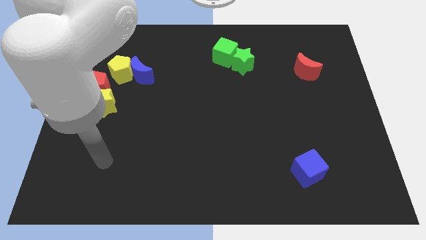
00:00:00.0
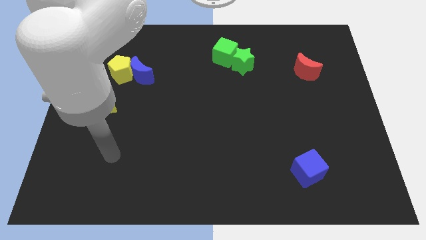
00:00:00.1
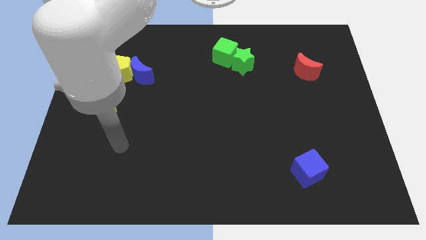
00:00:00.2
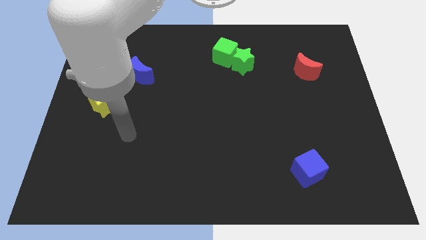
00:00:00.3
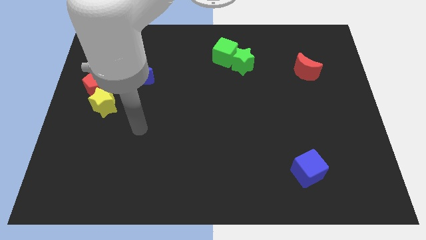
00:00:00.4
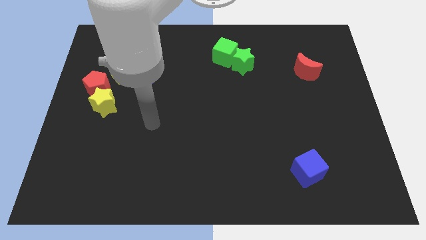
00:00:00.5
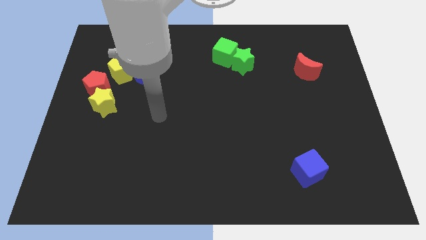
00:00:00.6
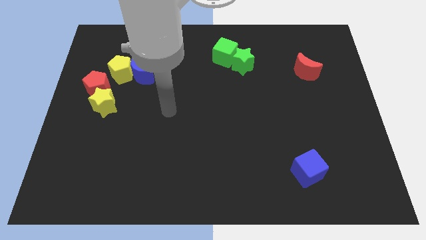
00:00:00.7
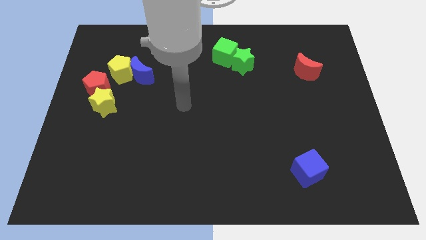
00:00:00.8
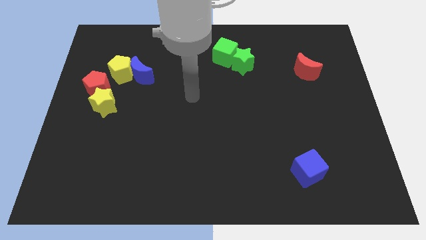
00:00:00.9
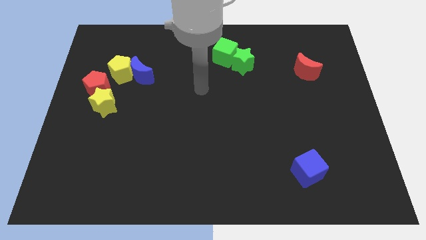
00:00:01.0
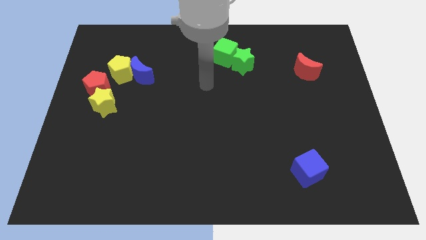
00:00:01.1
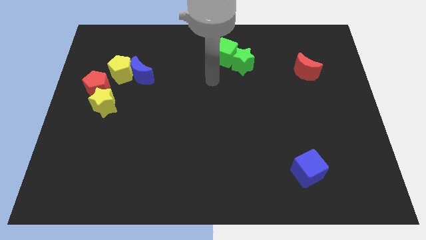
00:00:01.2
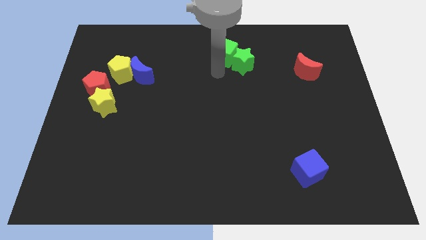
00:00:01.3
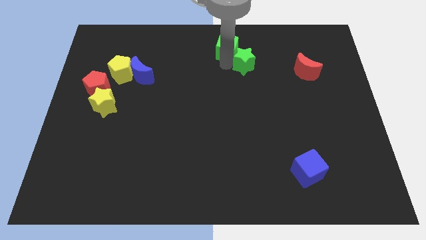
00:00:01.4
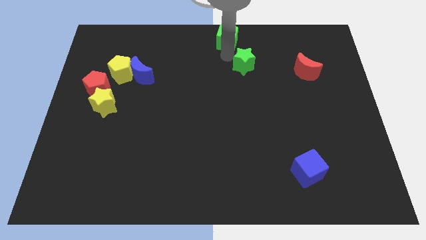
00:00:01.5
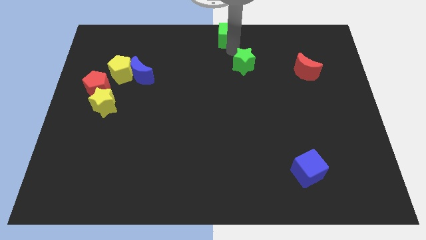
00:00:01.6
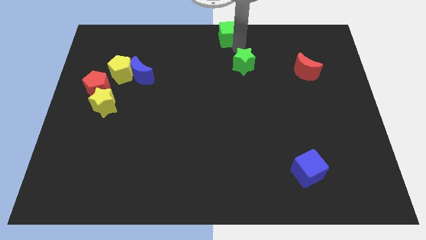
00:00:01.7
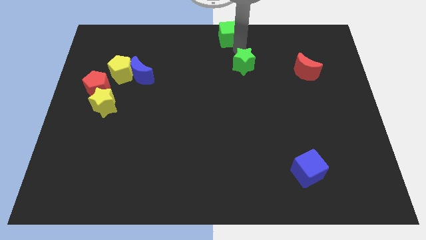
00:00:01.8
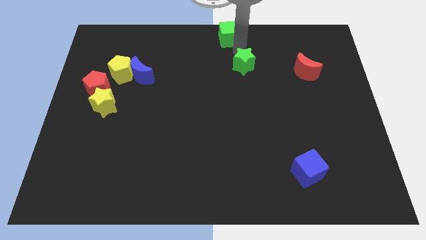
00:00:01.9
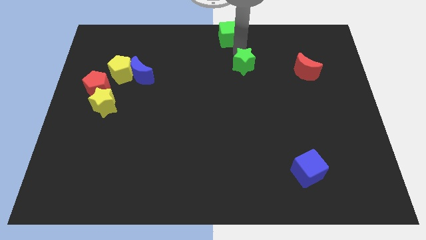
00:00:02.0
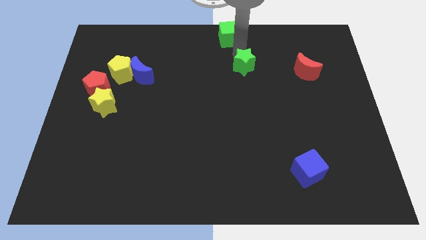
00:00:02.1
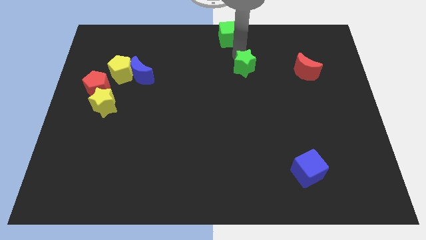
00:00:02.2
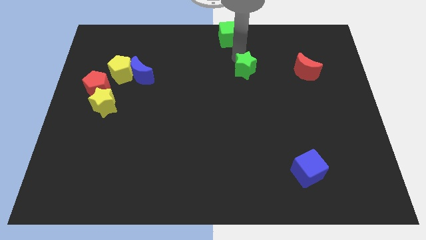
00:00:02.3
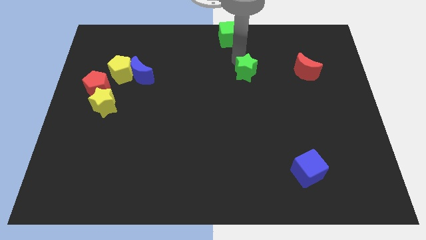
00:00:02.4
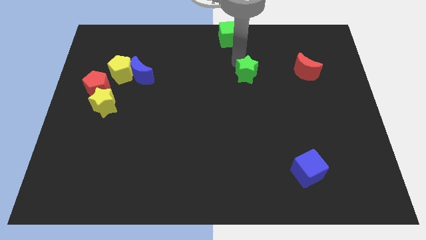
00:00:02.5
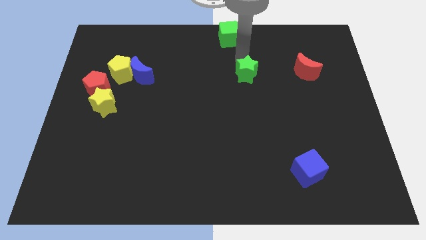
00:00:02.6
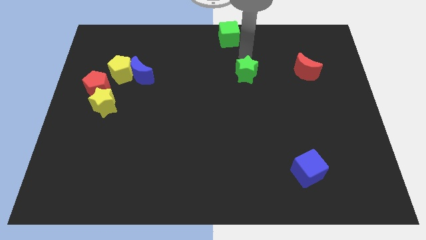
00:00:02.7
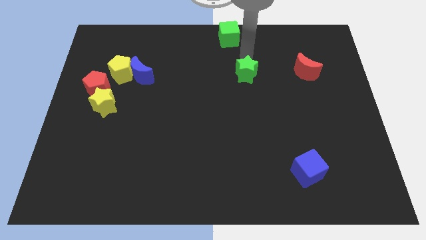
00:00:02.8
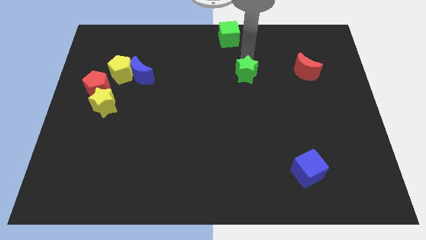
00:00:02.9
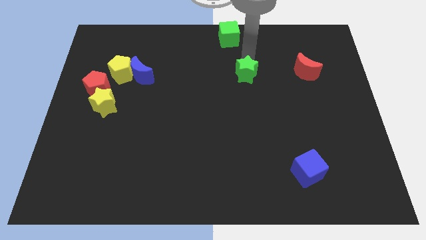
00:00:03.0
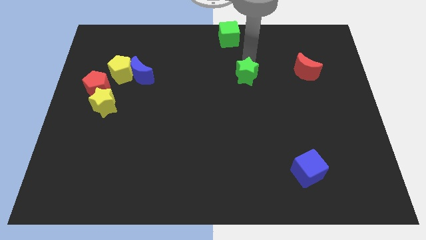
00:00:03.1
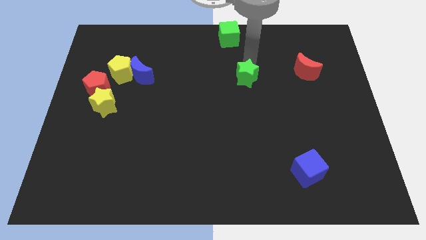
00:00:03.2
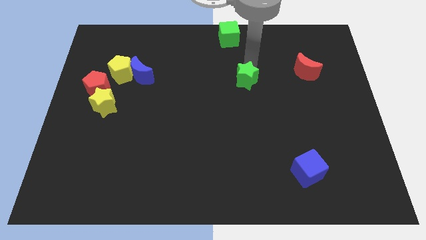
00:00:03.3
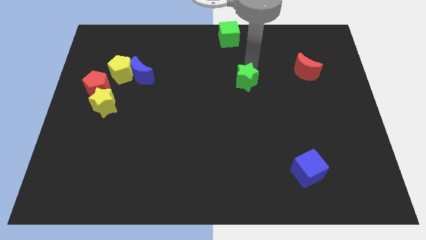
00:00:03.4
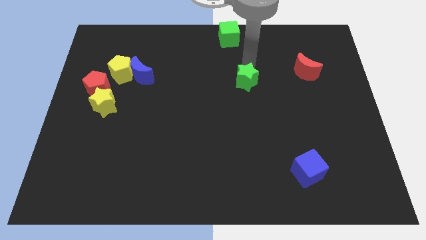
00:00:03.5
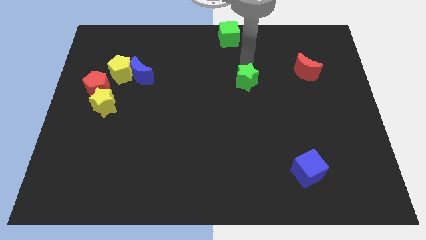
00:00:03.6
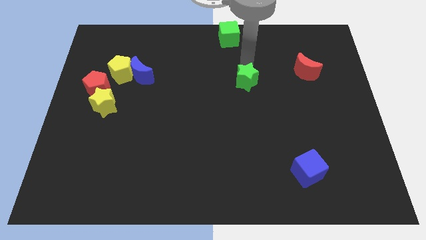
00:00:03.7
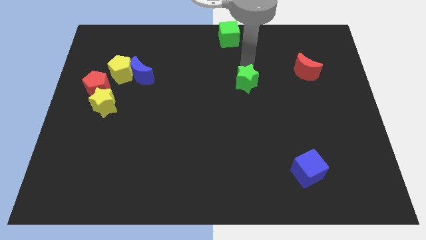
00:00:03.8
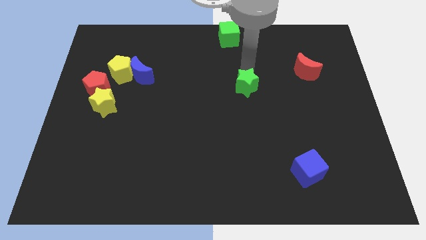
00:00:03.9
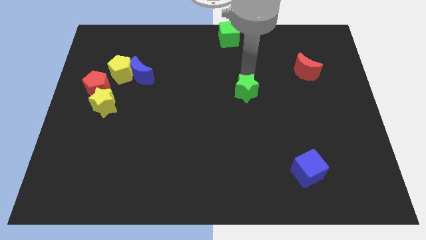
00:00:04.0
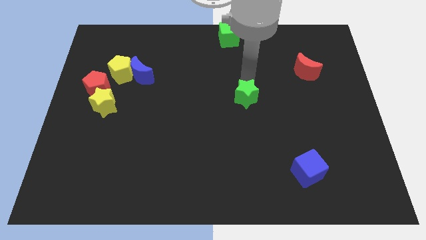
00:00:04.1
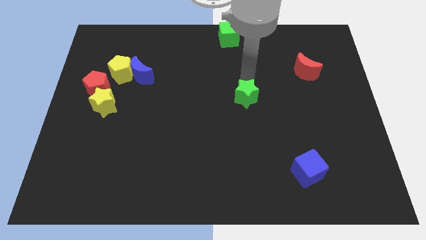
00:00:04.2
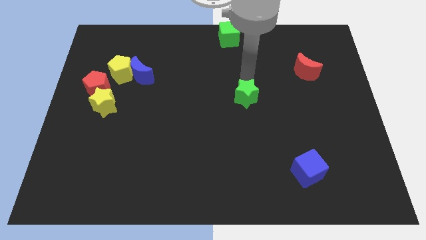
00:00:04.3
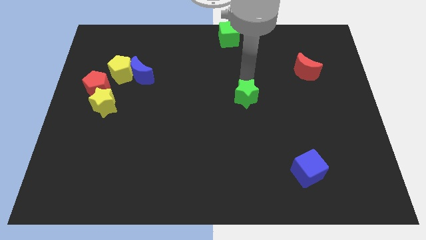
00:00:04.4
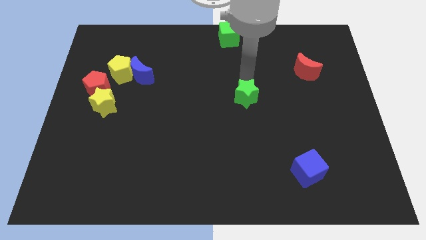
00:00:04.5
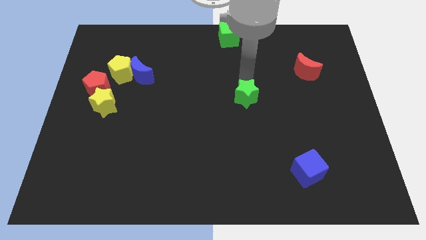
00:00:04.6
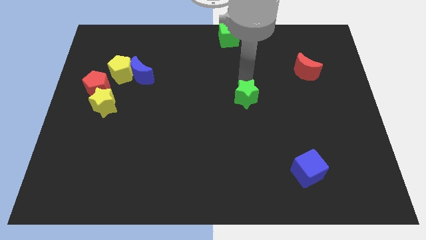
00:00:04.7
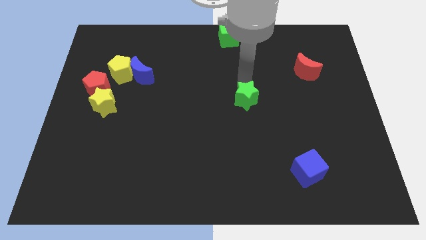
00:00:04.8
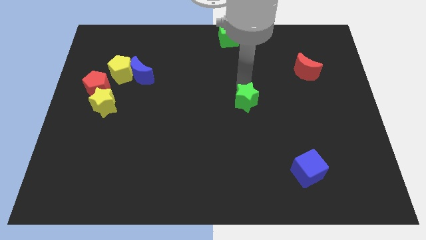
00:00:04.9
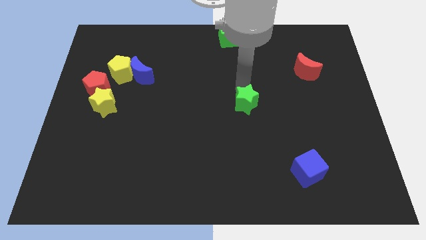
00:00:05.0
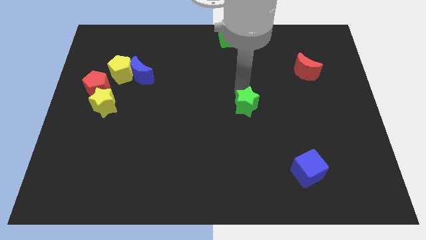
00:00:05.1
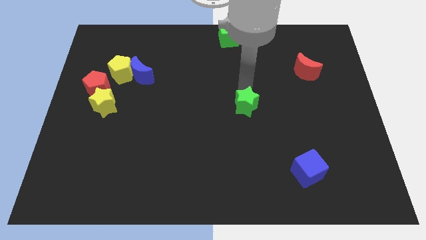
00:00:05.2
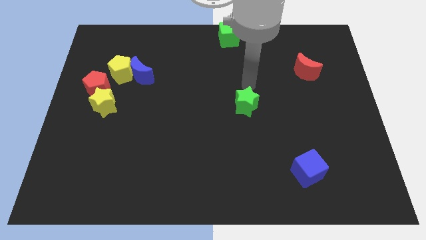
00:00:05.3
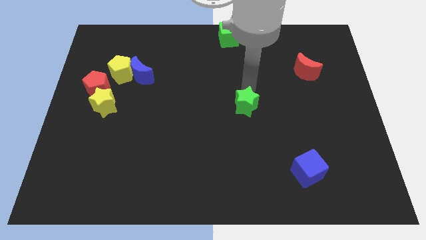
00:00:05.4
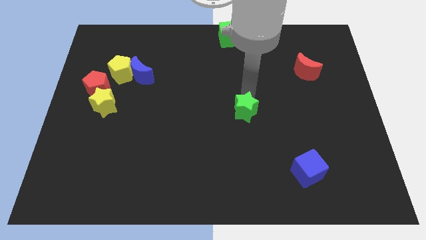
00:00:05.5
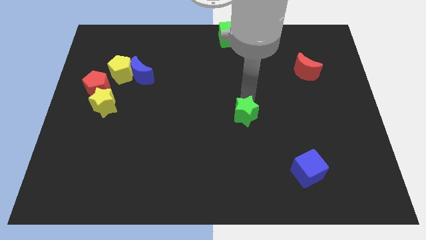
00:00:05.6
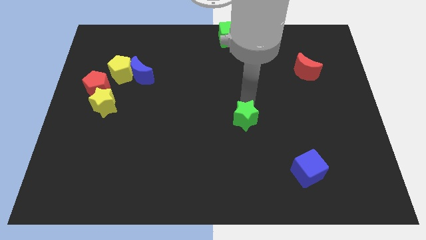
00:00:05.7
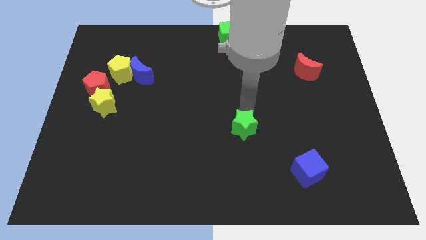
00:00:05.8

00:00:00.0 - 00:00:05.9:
push the green star downwards

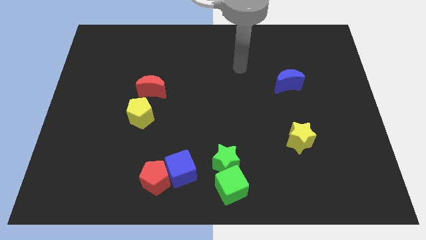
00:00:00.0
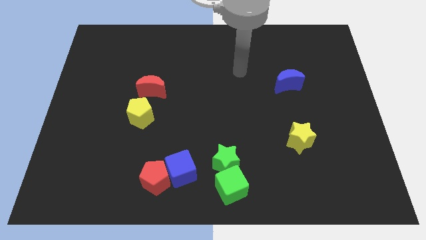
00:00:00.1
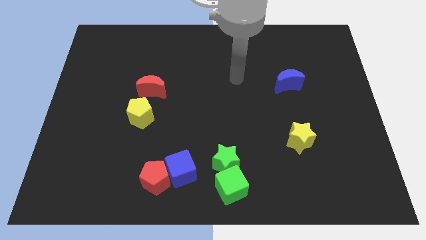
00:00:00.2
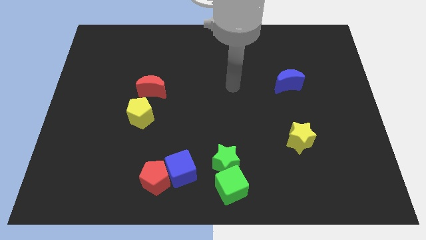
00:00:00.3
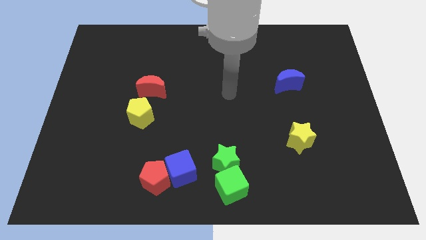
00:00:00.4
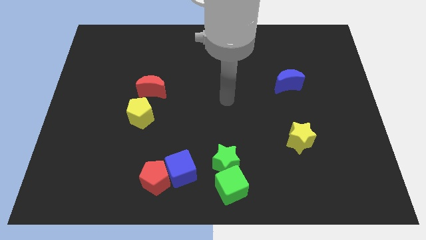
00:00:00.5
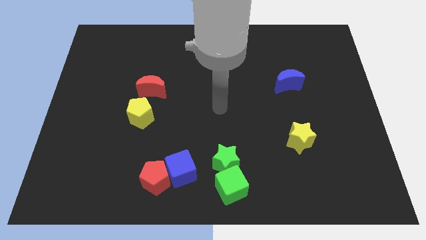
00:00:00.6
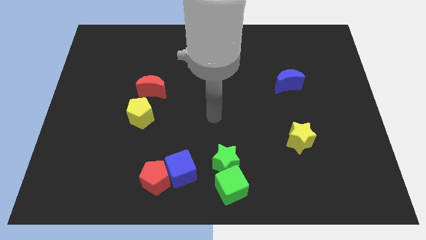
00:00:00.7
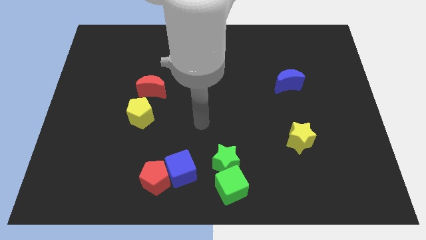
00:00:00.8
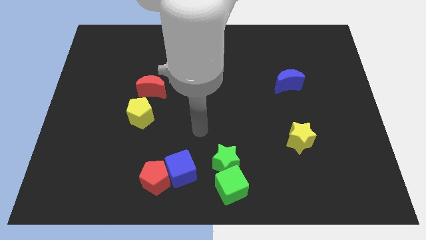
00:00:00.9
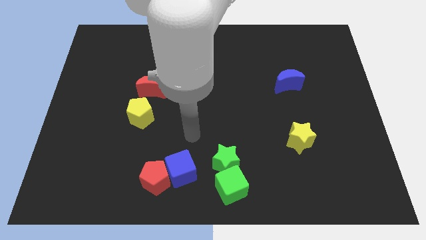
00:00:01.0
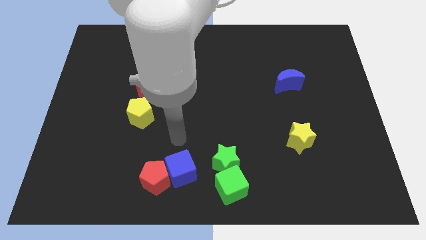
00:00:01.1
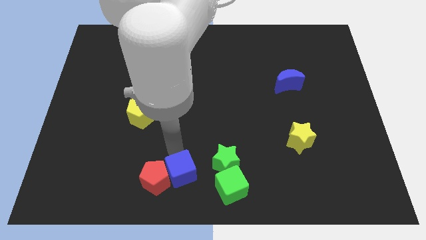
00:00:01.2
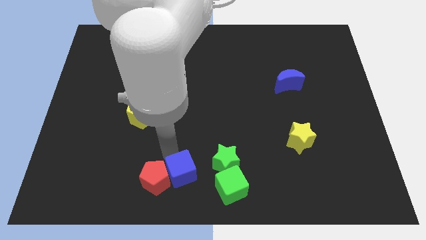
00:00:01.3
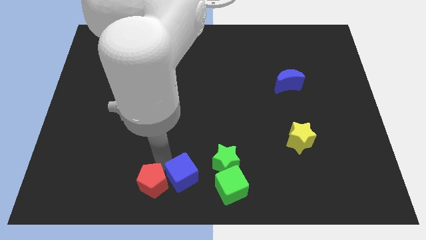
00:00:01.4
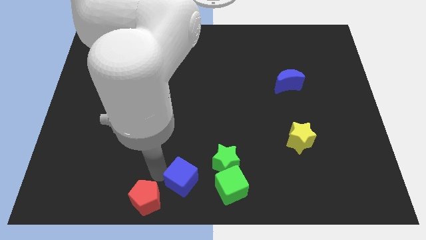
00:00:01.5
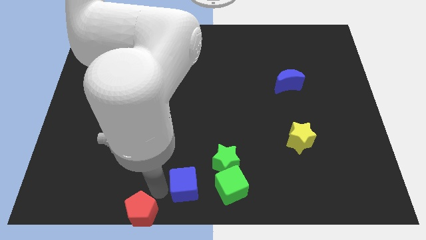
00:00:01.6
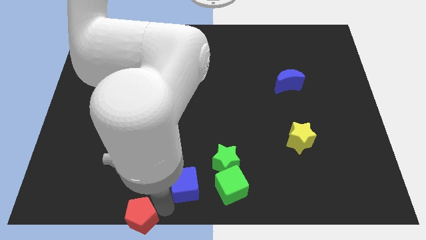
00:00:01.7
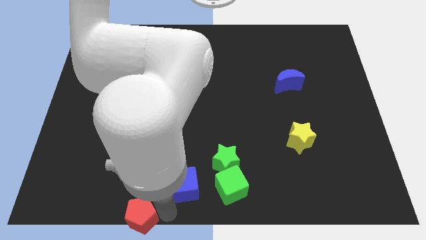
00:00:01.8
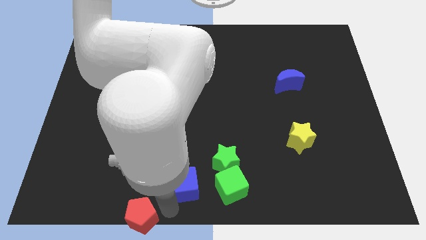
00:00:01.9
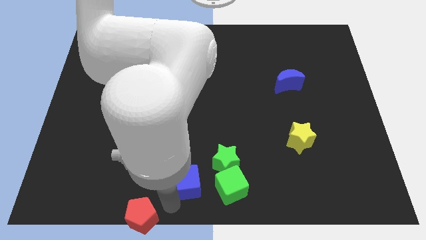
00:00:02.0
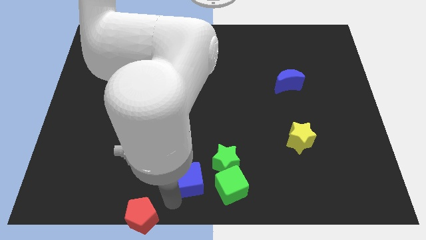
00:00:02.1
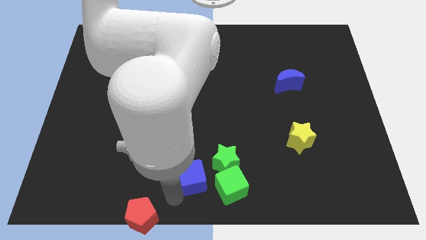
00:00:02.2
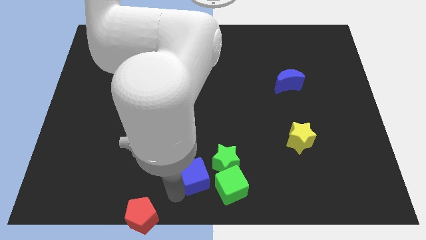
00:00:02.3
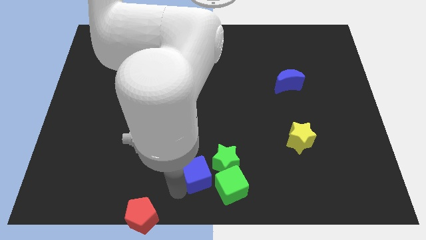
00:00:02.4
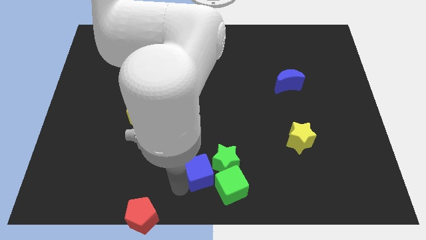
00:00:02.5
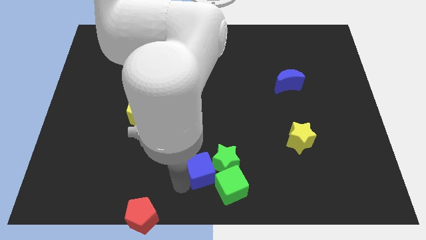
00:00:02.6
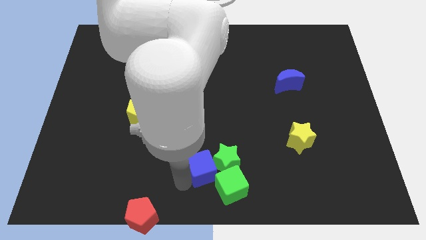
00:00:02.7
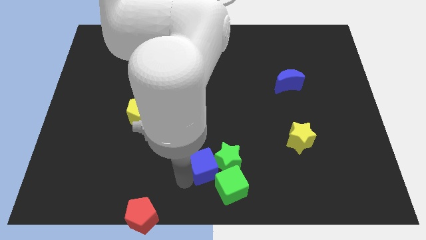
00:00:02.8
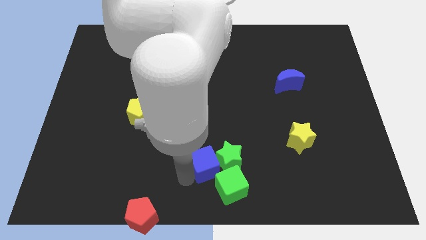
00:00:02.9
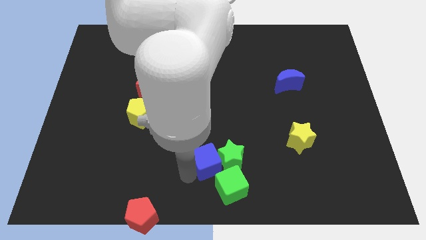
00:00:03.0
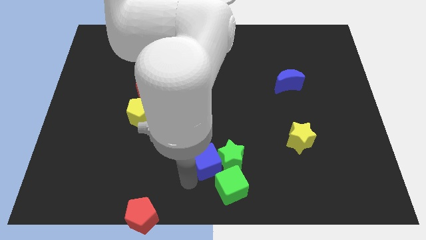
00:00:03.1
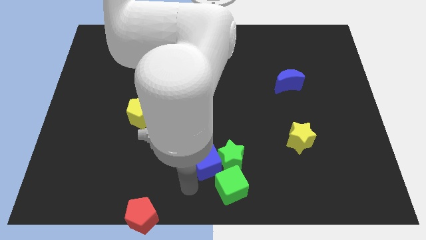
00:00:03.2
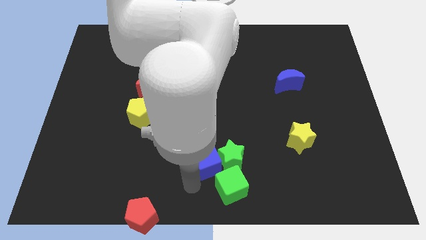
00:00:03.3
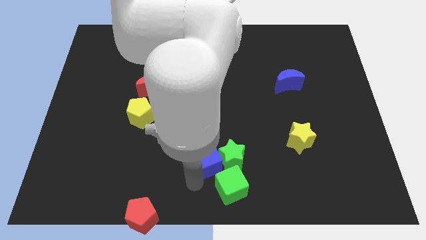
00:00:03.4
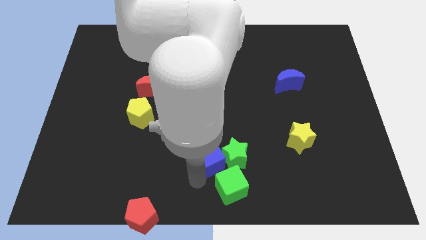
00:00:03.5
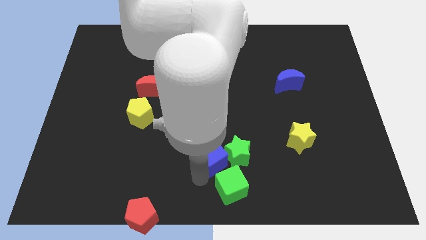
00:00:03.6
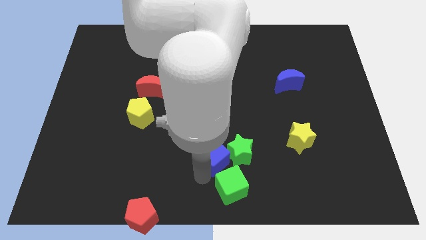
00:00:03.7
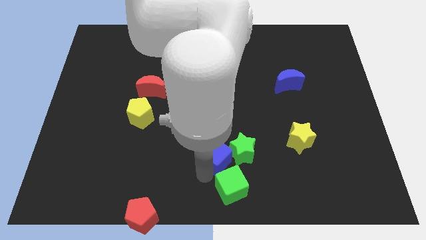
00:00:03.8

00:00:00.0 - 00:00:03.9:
slightly slide the blue cube to the right
